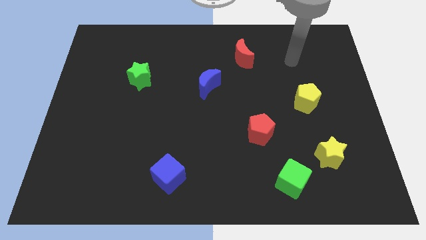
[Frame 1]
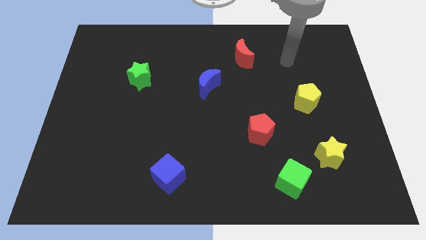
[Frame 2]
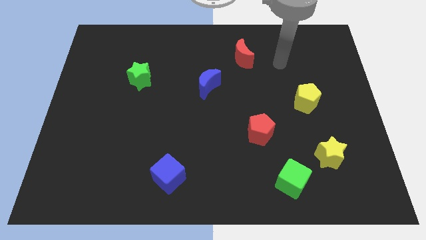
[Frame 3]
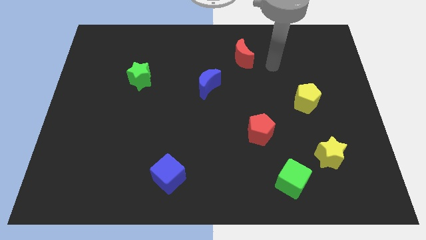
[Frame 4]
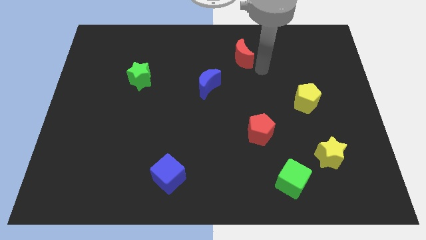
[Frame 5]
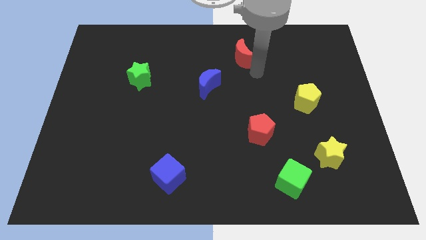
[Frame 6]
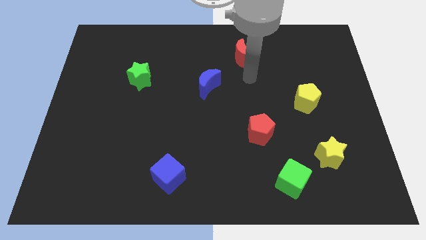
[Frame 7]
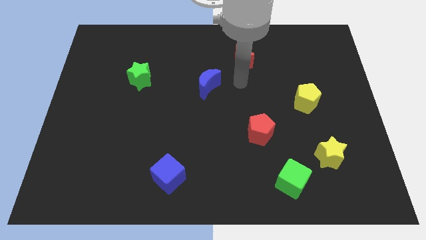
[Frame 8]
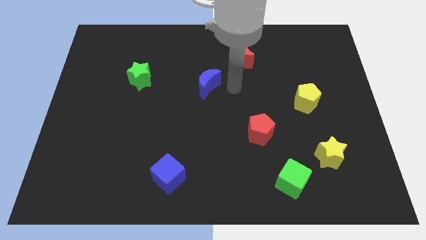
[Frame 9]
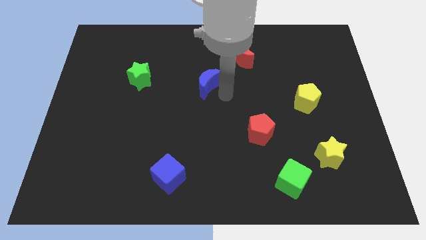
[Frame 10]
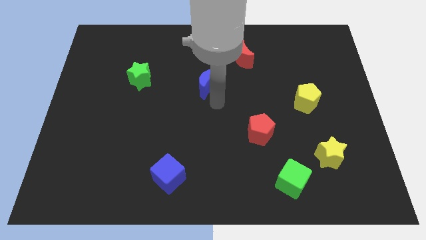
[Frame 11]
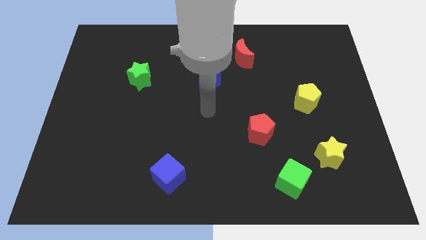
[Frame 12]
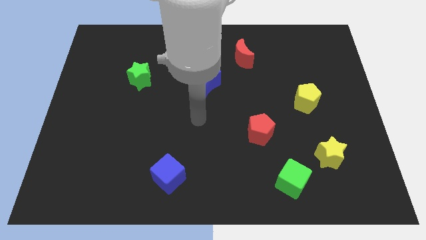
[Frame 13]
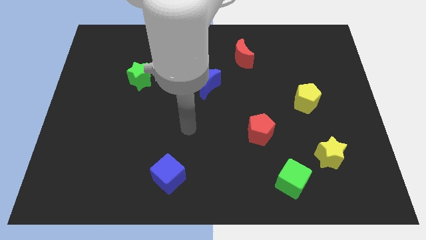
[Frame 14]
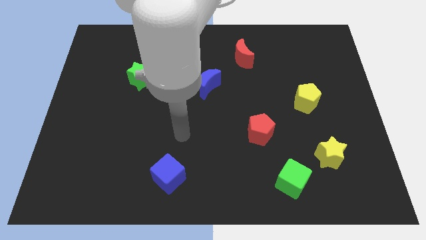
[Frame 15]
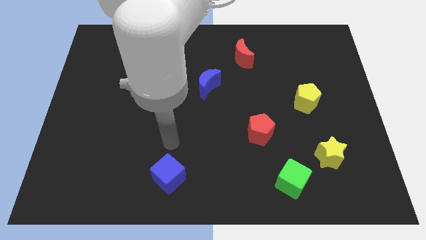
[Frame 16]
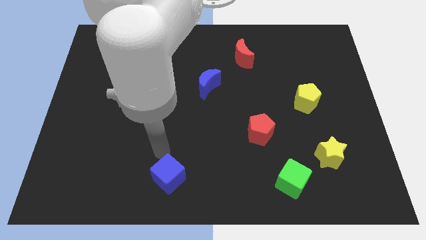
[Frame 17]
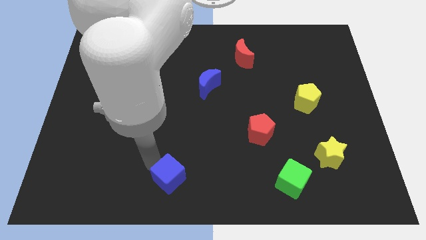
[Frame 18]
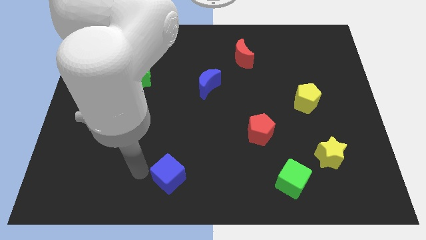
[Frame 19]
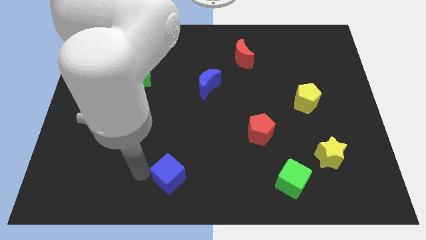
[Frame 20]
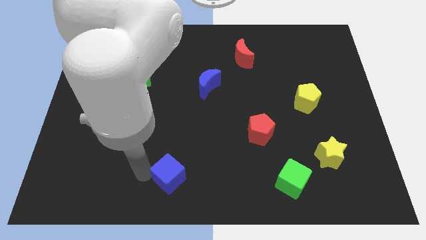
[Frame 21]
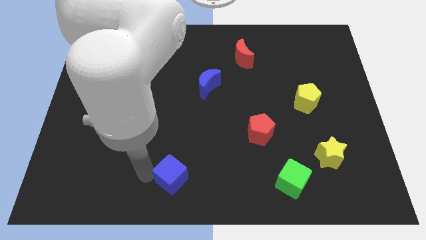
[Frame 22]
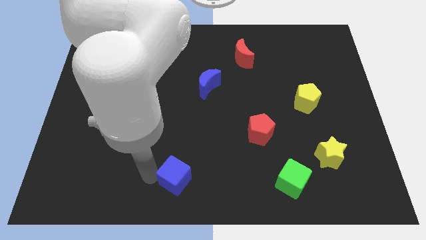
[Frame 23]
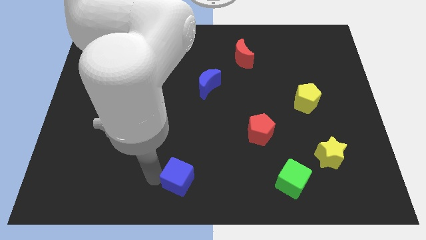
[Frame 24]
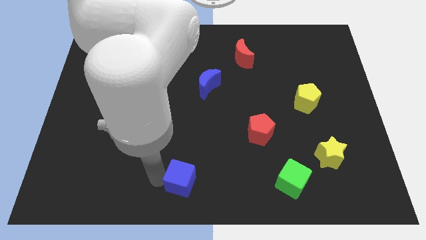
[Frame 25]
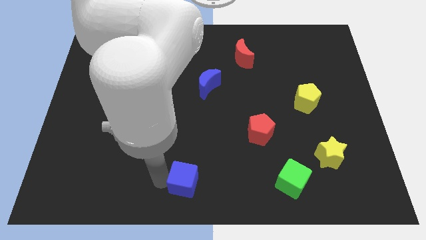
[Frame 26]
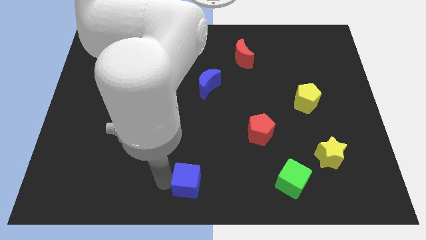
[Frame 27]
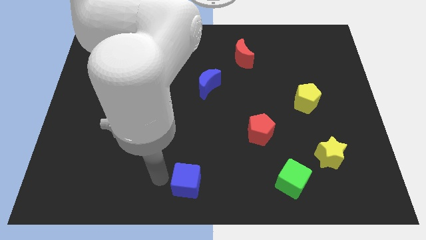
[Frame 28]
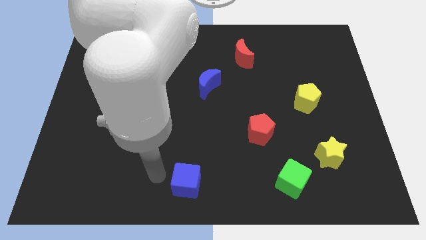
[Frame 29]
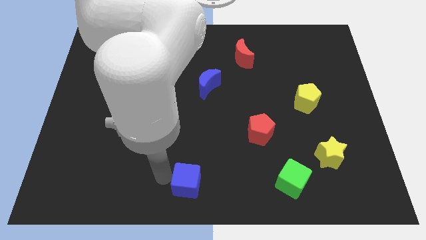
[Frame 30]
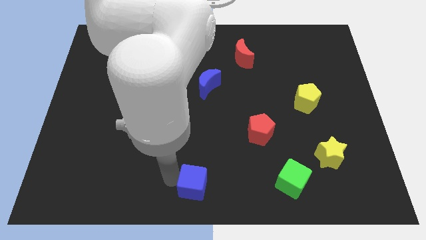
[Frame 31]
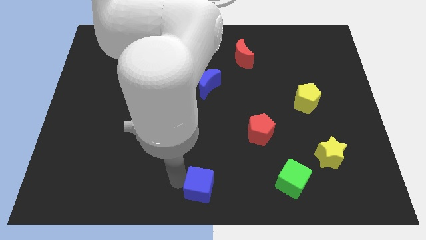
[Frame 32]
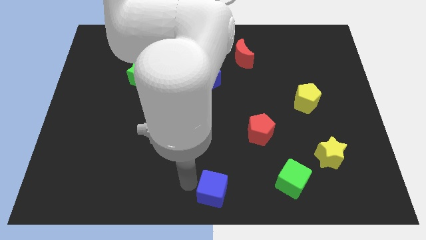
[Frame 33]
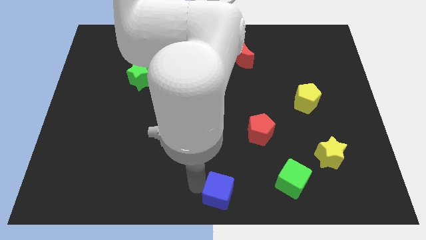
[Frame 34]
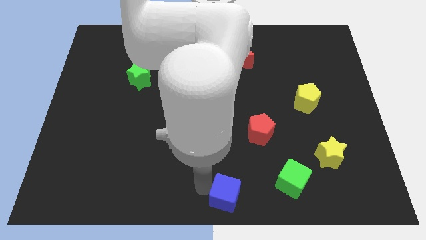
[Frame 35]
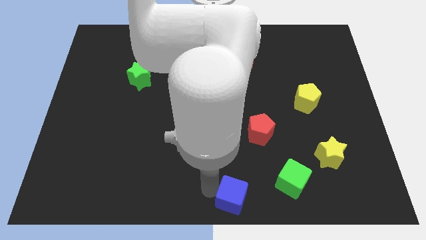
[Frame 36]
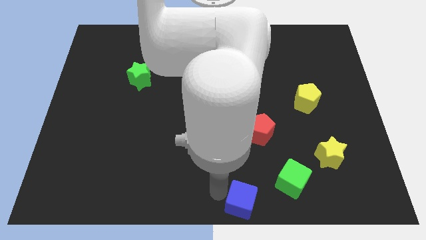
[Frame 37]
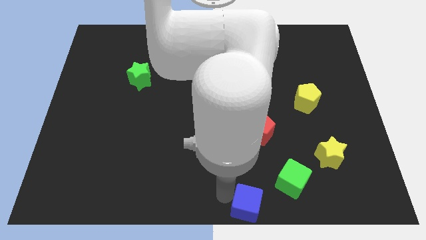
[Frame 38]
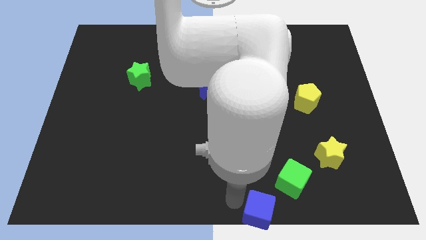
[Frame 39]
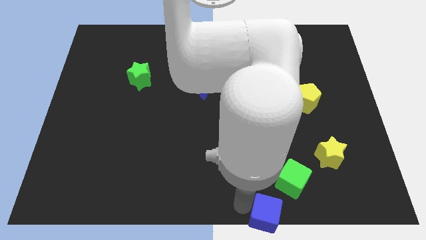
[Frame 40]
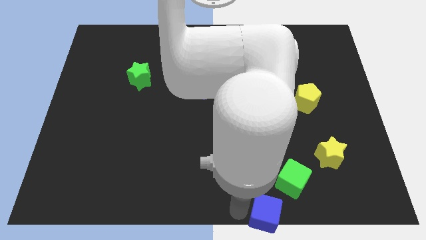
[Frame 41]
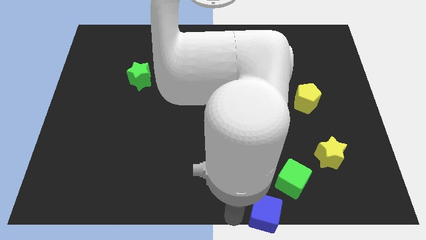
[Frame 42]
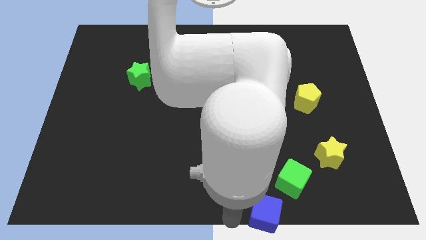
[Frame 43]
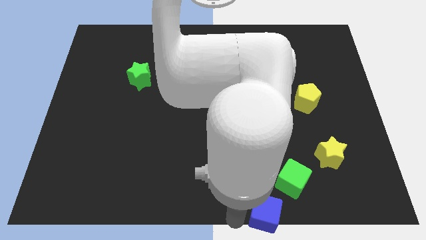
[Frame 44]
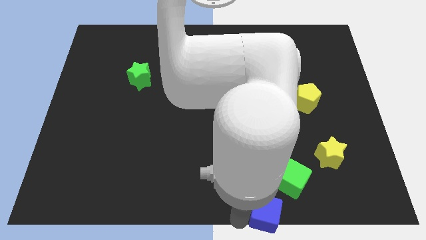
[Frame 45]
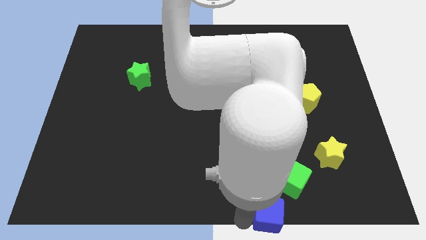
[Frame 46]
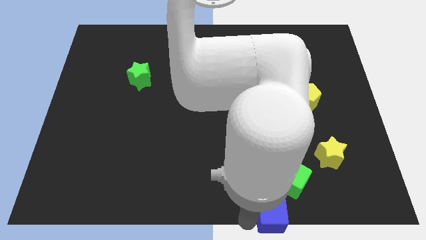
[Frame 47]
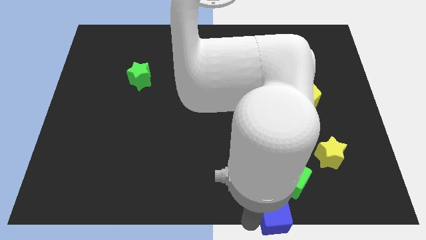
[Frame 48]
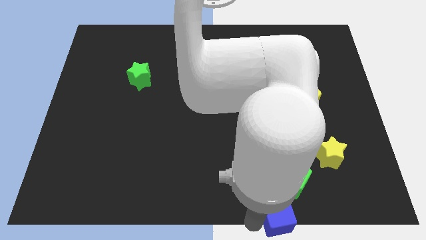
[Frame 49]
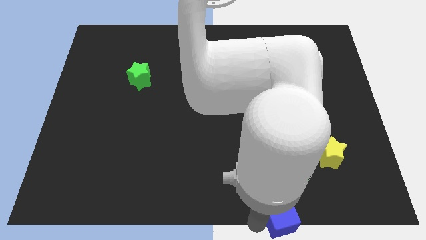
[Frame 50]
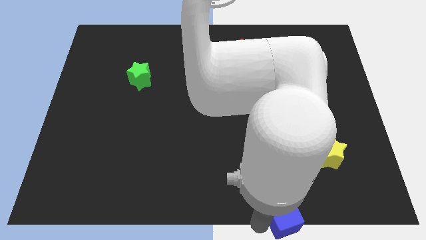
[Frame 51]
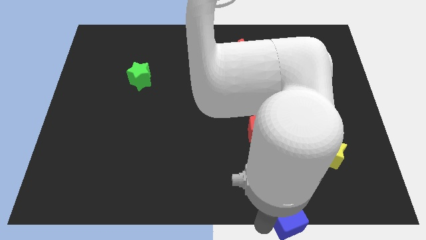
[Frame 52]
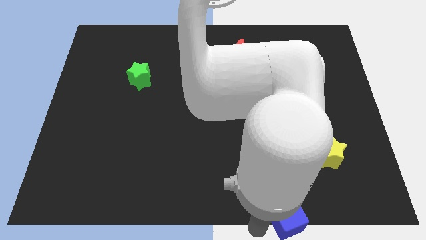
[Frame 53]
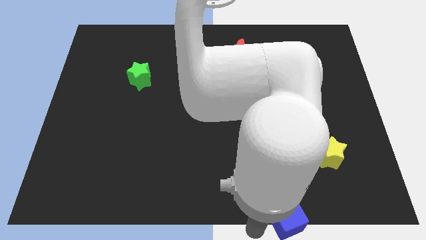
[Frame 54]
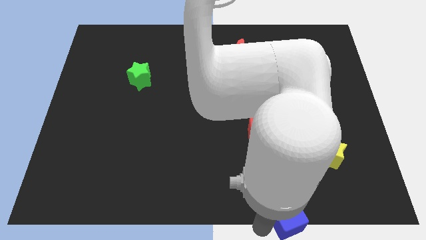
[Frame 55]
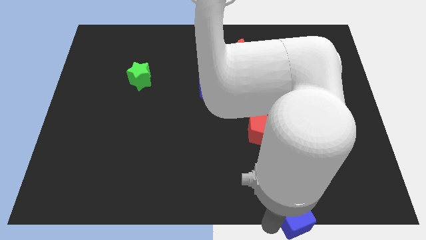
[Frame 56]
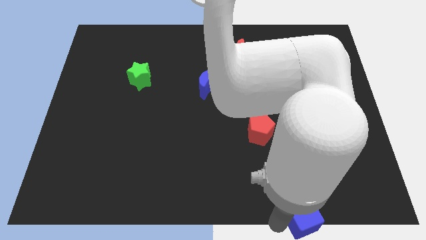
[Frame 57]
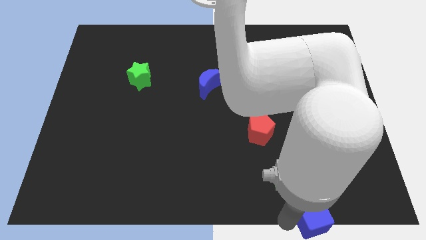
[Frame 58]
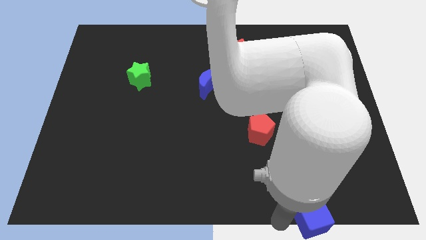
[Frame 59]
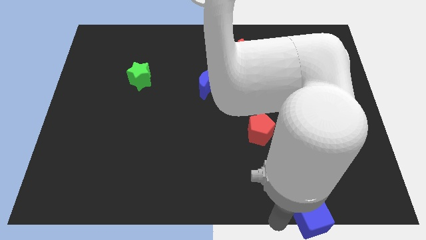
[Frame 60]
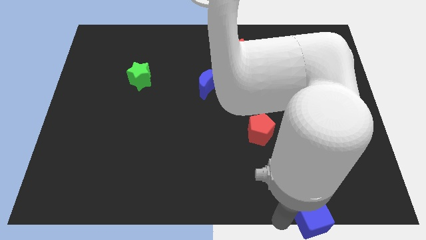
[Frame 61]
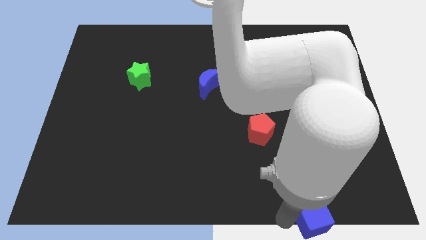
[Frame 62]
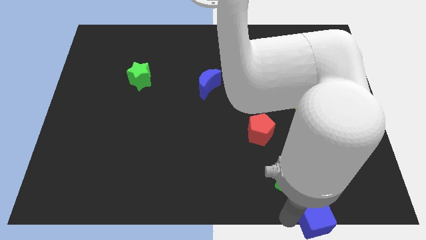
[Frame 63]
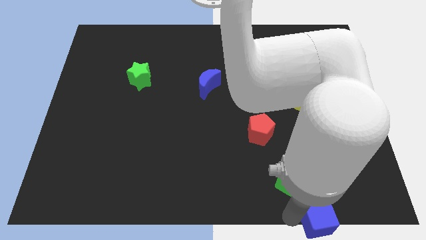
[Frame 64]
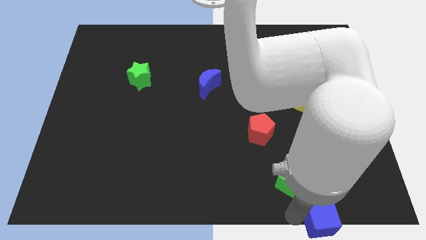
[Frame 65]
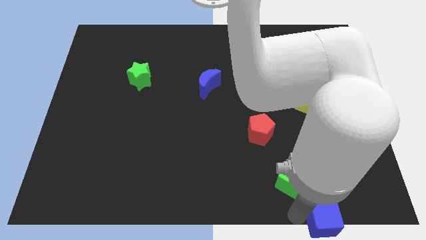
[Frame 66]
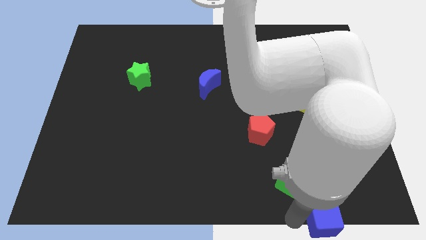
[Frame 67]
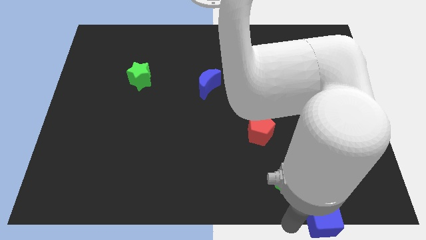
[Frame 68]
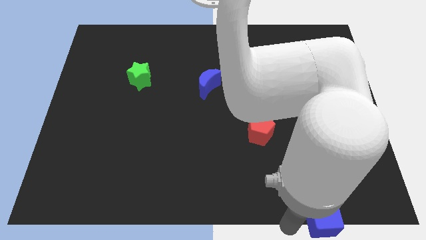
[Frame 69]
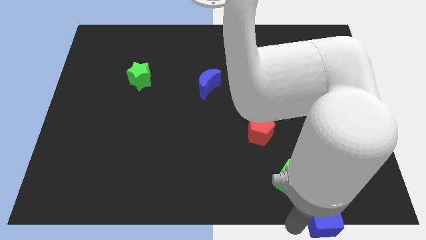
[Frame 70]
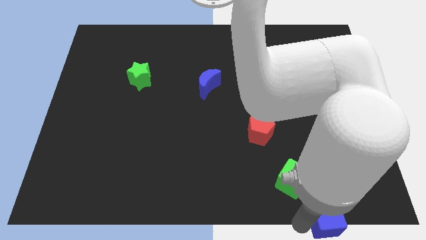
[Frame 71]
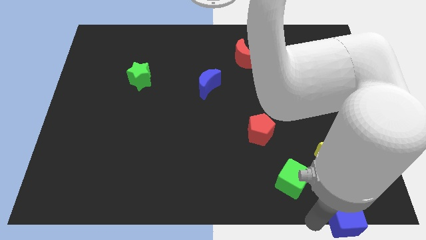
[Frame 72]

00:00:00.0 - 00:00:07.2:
push the blue cube to the bottom right corner
